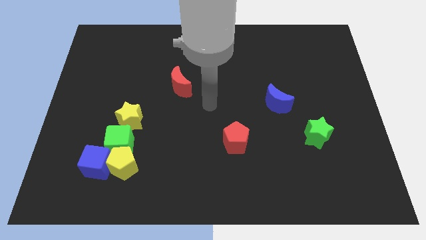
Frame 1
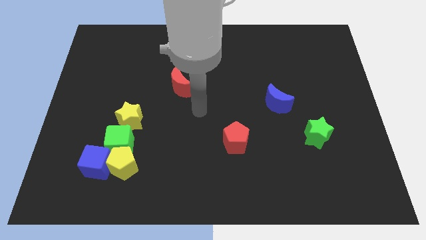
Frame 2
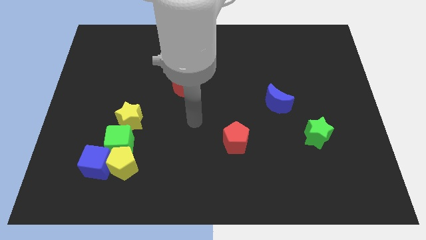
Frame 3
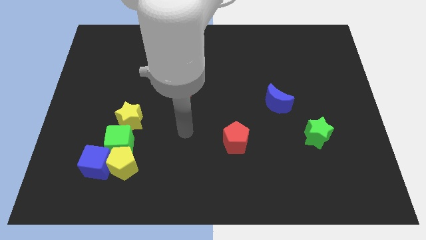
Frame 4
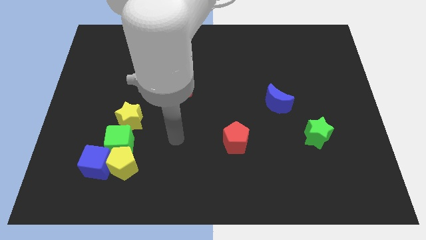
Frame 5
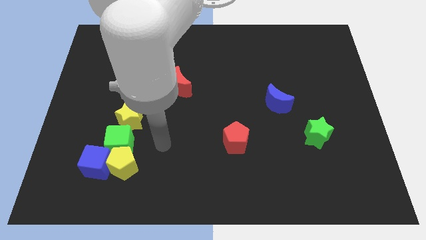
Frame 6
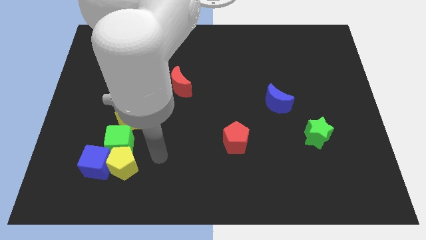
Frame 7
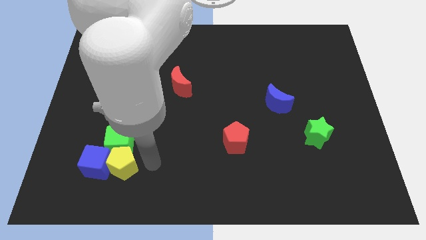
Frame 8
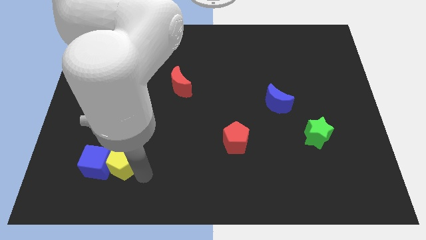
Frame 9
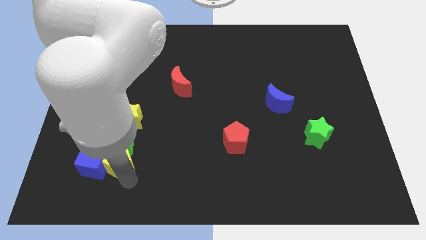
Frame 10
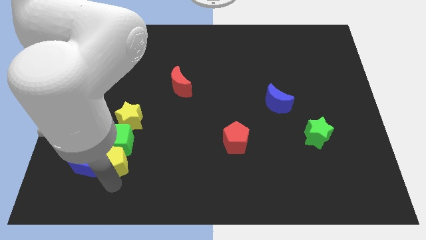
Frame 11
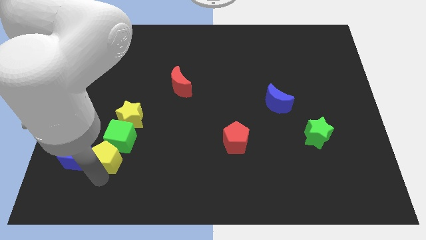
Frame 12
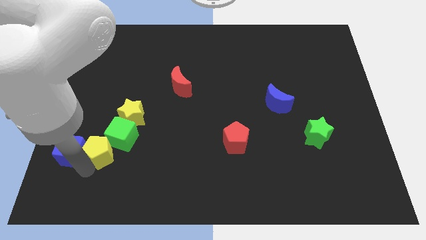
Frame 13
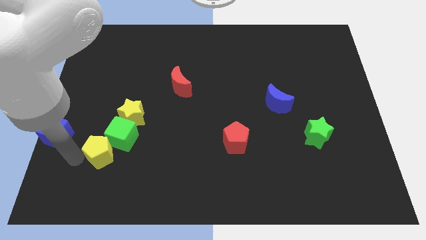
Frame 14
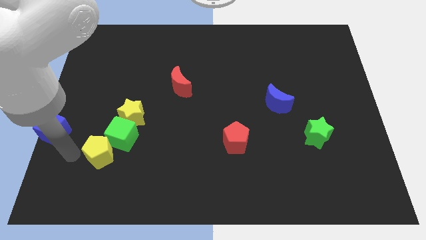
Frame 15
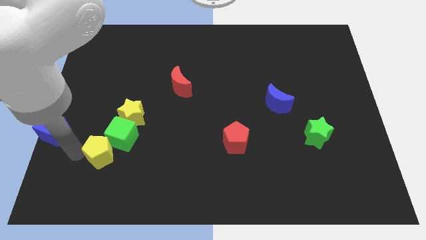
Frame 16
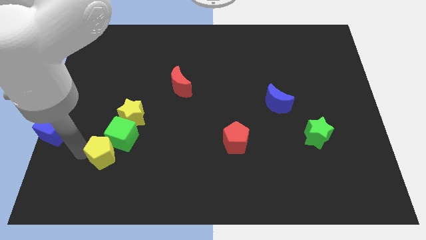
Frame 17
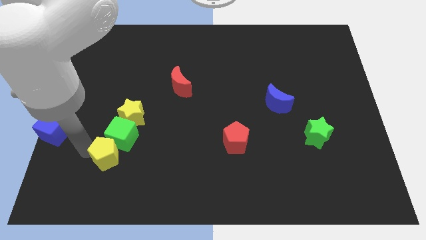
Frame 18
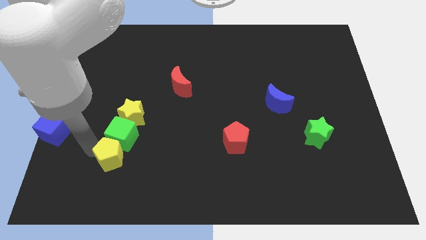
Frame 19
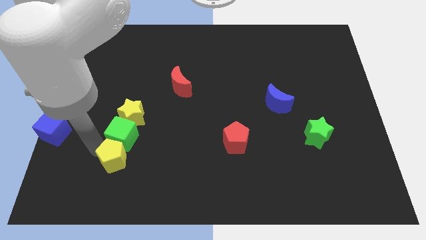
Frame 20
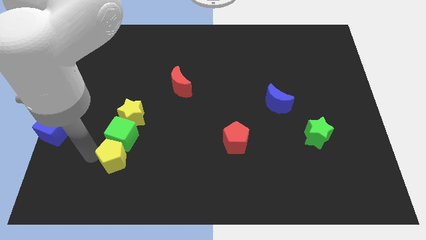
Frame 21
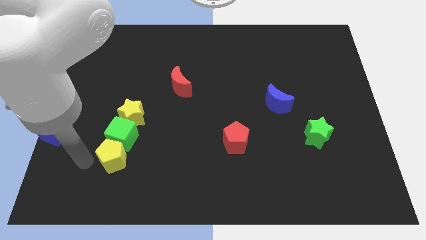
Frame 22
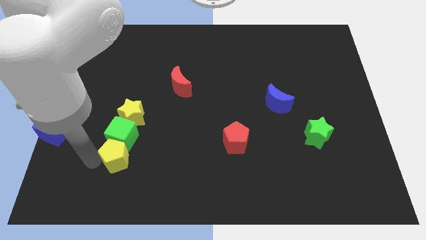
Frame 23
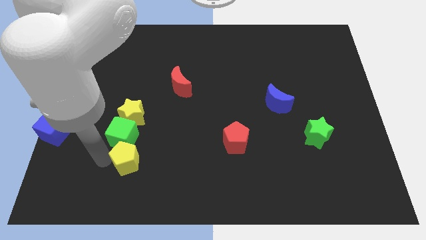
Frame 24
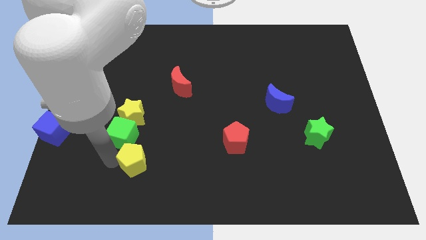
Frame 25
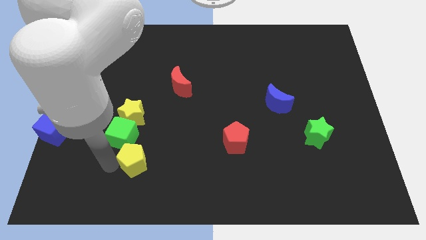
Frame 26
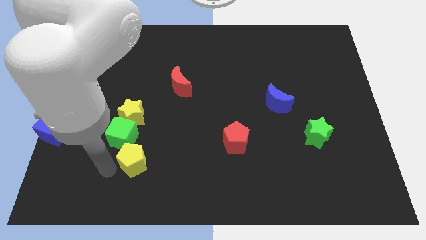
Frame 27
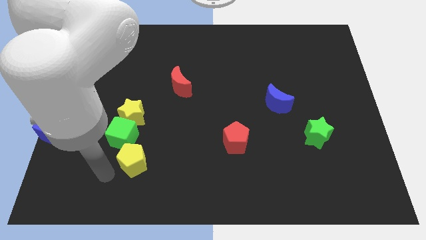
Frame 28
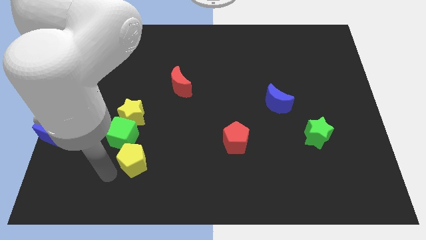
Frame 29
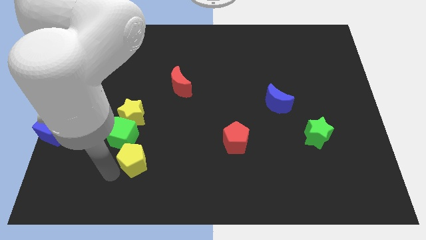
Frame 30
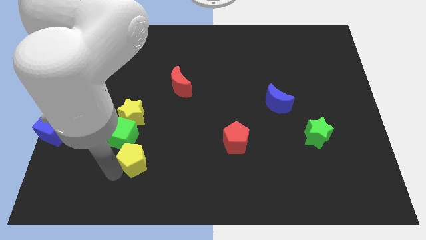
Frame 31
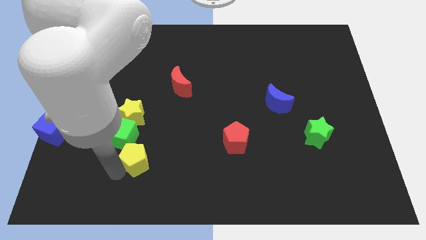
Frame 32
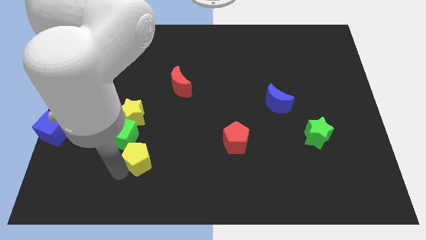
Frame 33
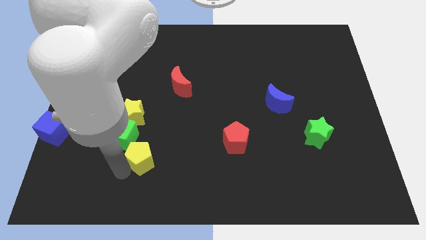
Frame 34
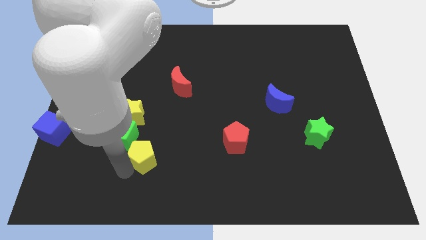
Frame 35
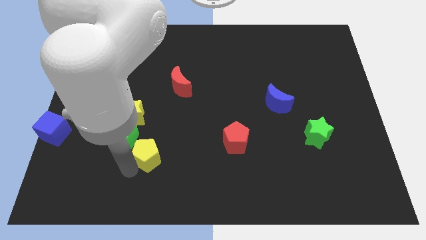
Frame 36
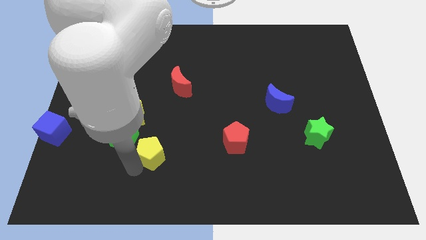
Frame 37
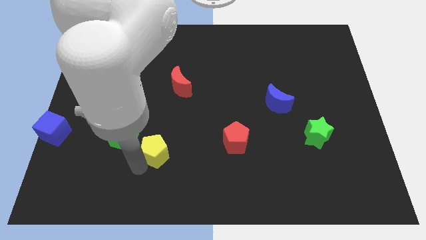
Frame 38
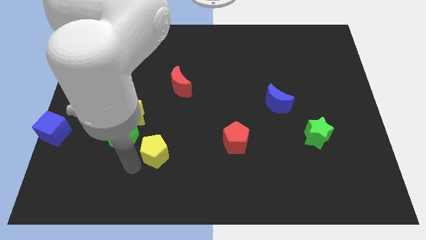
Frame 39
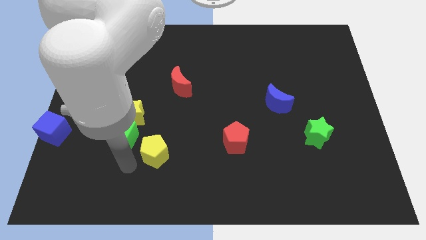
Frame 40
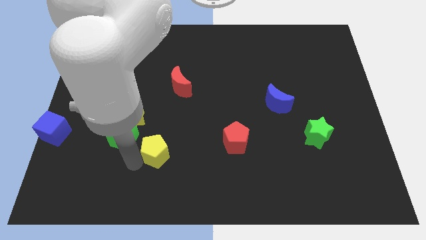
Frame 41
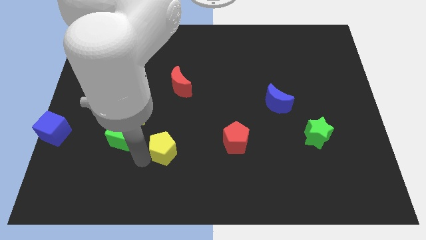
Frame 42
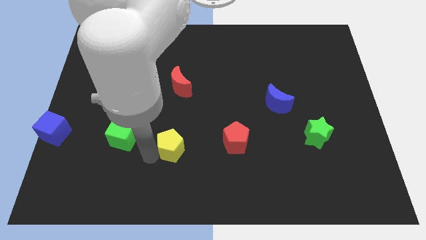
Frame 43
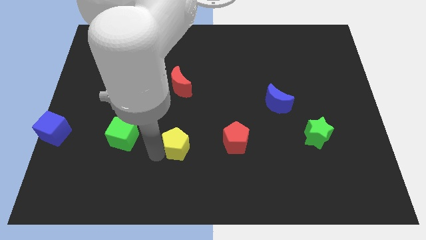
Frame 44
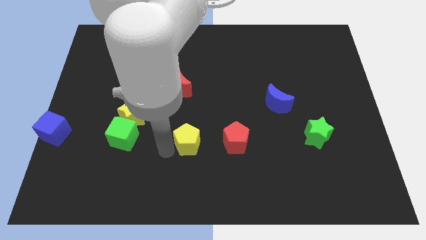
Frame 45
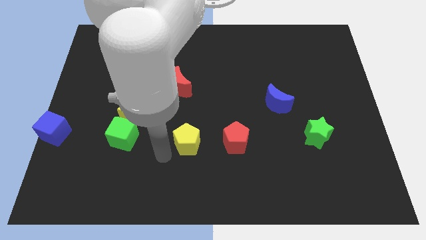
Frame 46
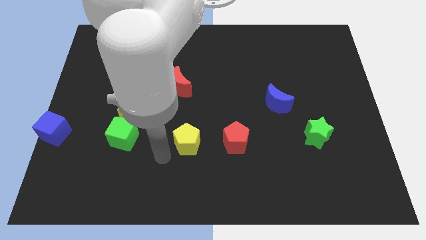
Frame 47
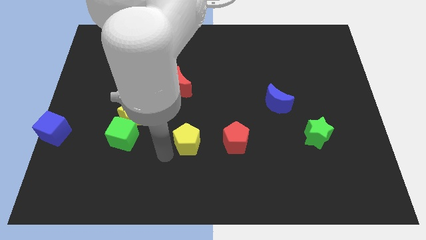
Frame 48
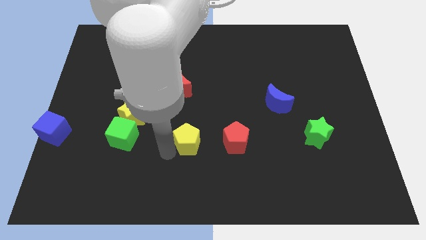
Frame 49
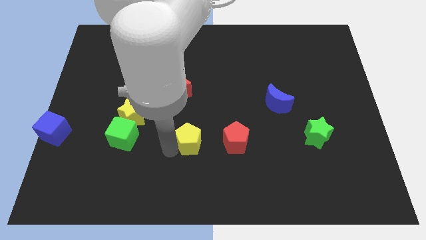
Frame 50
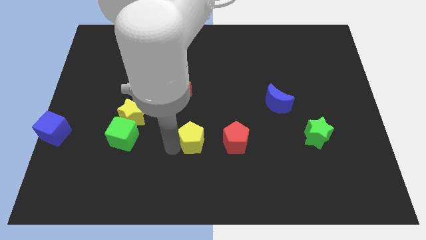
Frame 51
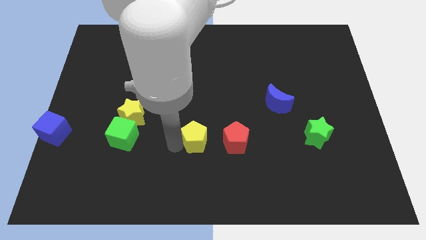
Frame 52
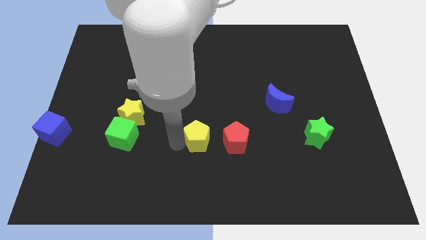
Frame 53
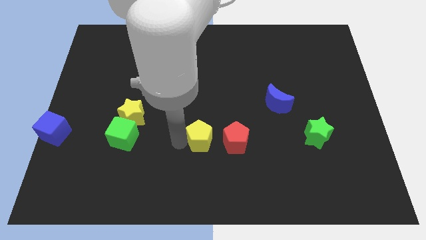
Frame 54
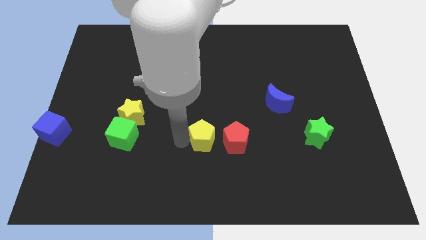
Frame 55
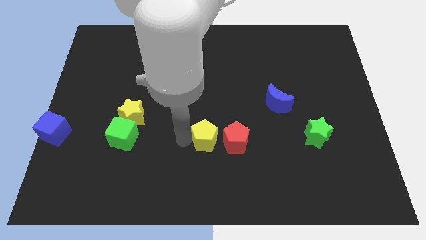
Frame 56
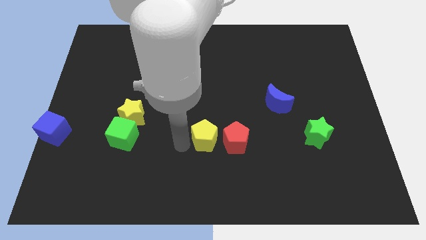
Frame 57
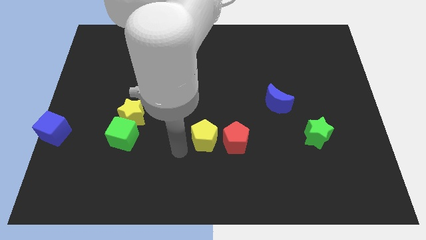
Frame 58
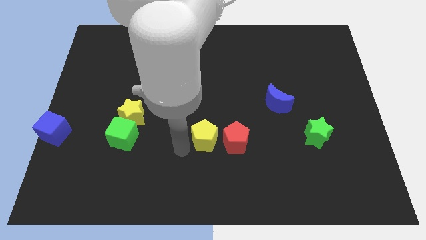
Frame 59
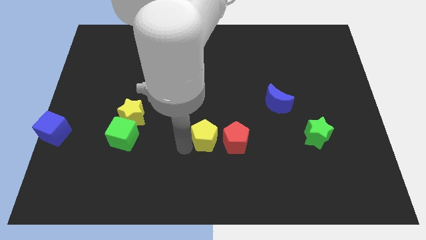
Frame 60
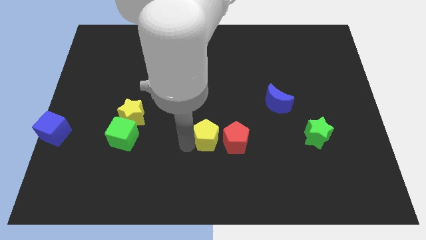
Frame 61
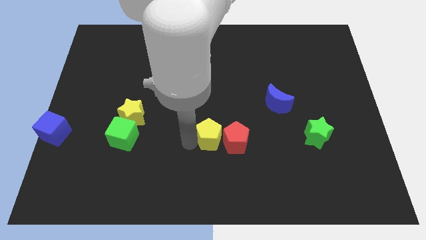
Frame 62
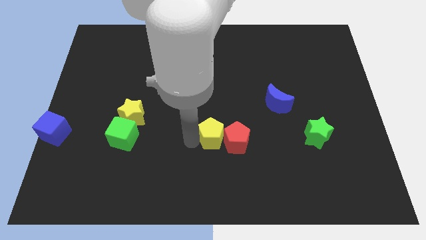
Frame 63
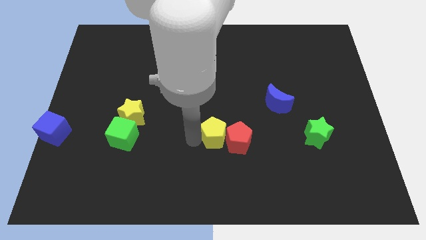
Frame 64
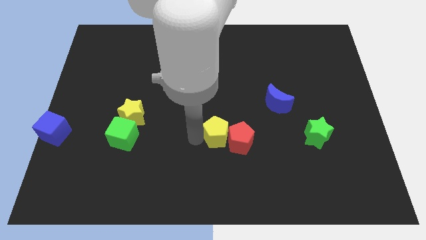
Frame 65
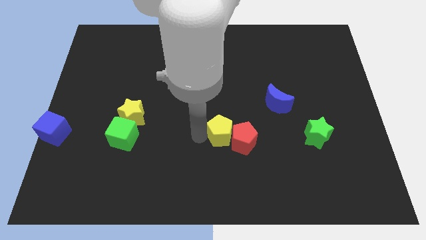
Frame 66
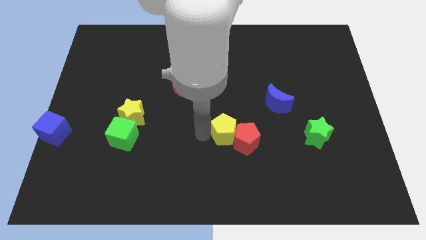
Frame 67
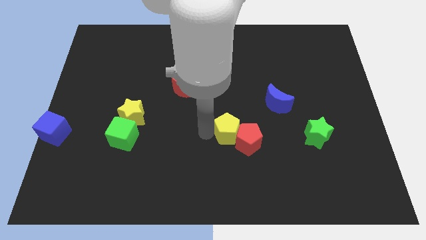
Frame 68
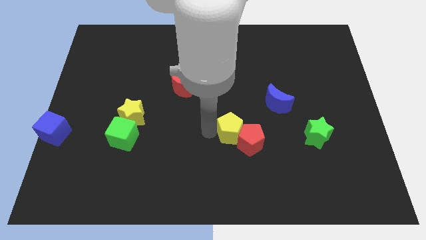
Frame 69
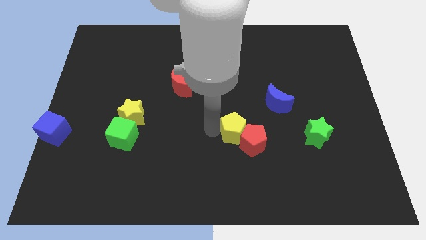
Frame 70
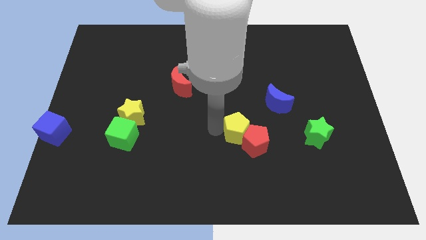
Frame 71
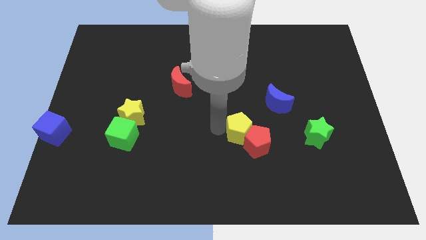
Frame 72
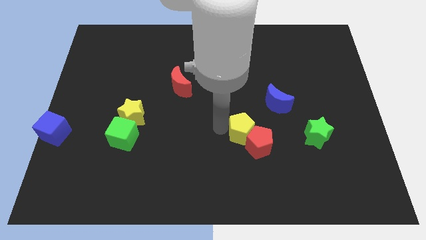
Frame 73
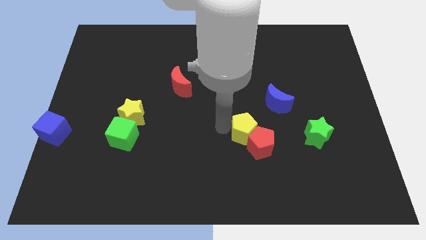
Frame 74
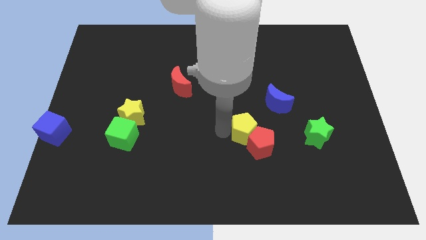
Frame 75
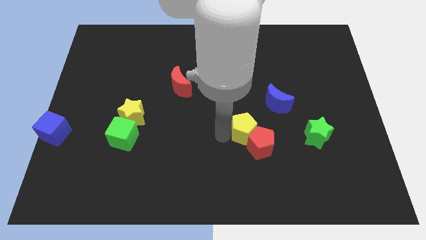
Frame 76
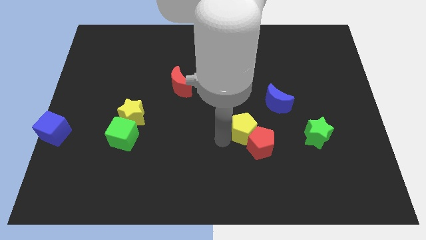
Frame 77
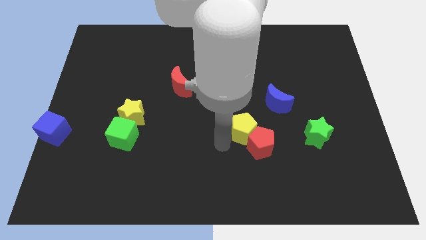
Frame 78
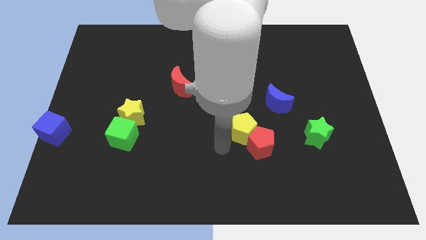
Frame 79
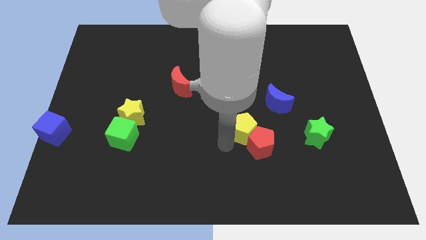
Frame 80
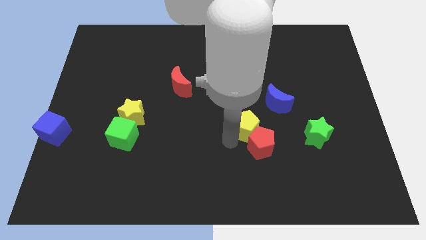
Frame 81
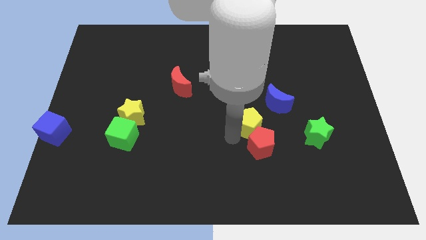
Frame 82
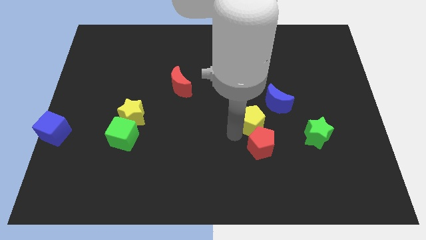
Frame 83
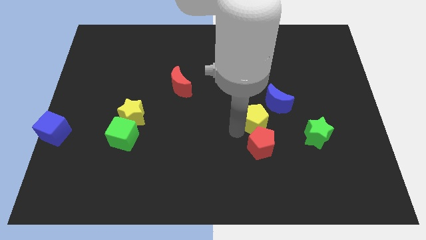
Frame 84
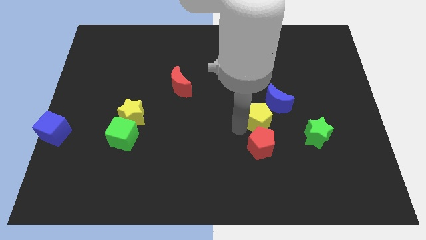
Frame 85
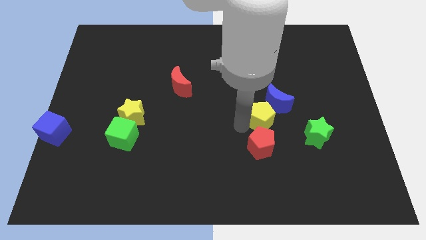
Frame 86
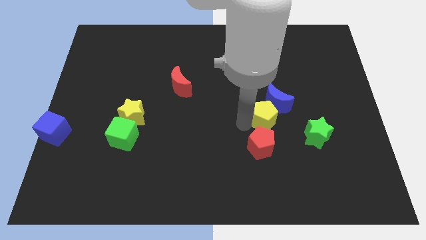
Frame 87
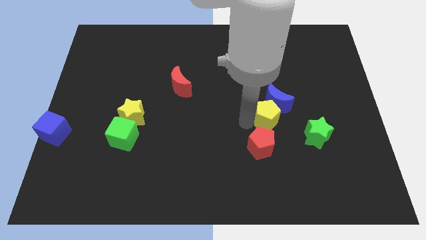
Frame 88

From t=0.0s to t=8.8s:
push the yellow pentagon to the top left of the green star
